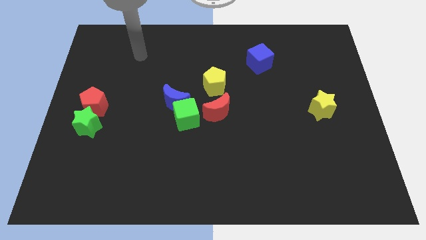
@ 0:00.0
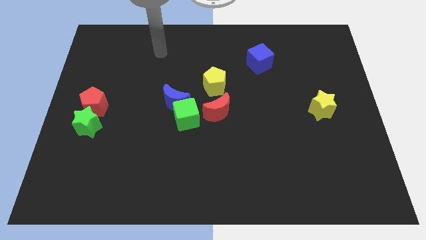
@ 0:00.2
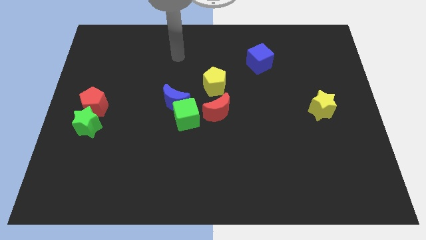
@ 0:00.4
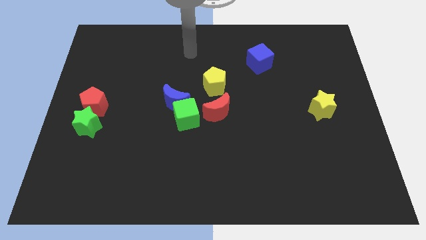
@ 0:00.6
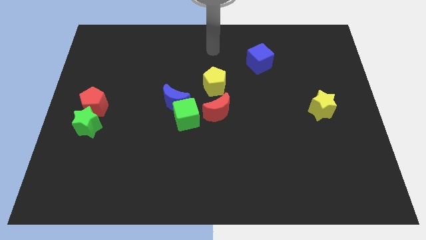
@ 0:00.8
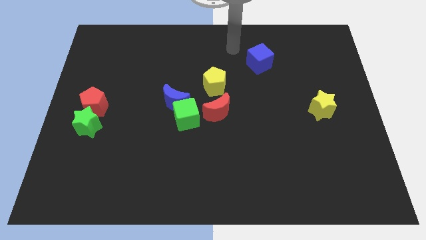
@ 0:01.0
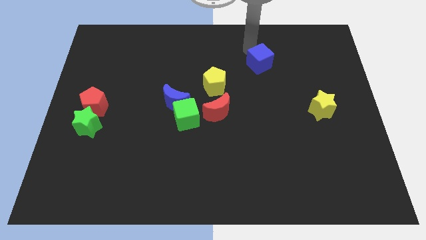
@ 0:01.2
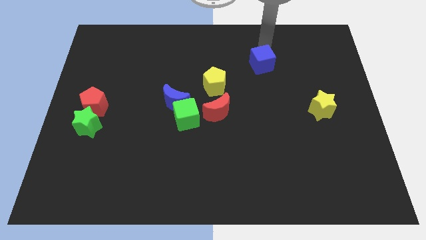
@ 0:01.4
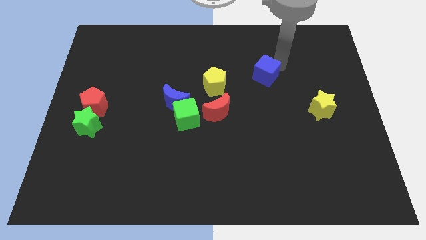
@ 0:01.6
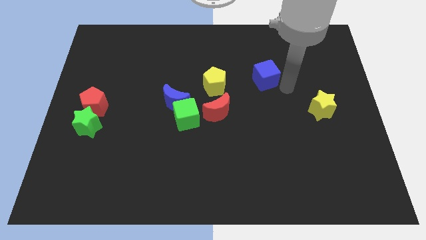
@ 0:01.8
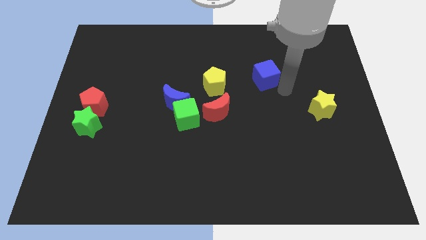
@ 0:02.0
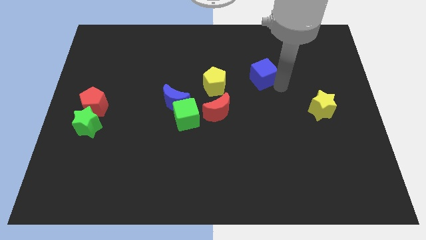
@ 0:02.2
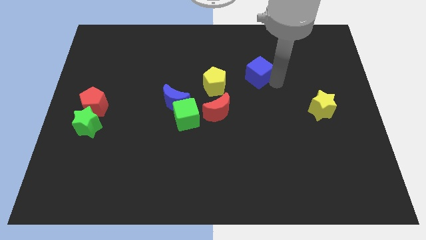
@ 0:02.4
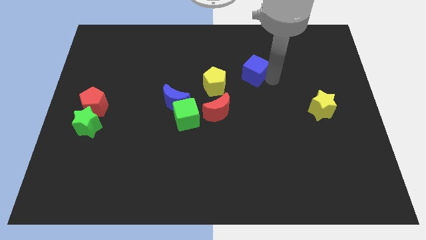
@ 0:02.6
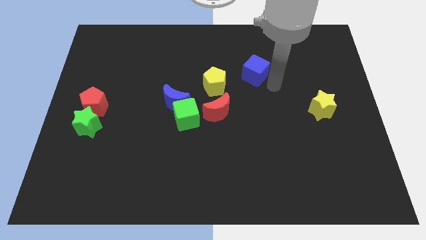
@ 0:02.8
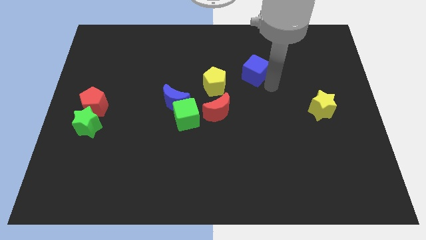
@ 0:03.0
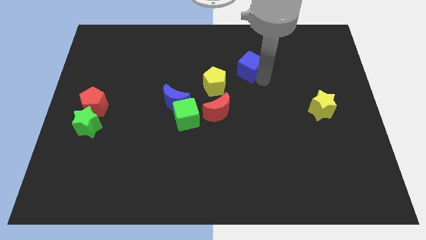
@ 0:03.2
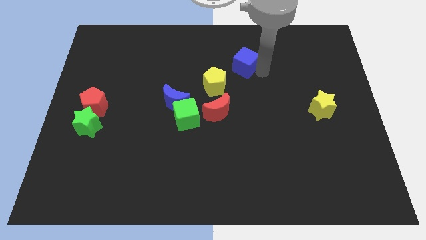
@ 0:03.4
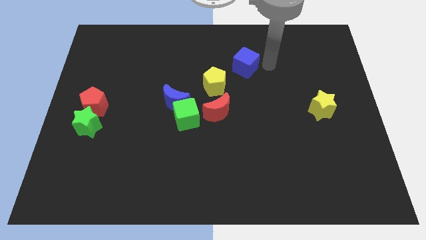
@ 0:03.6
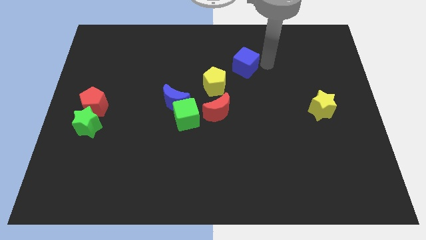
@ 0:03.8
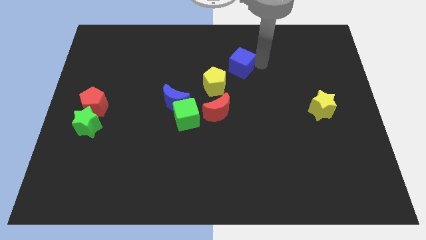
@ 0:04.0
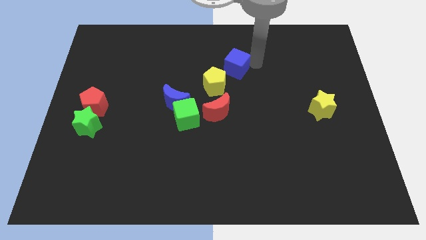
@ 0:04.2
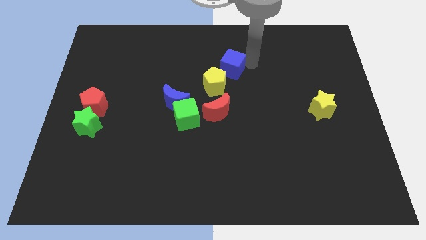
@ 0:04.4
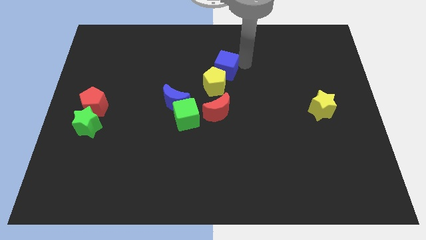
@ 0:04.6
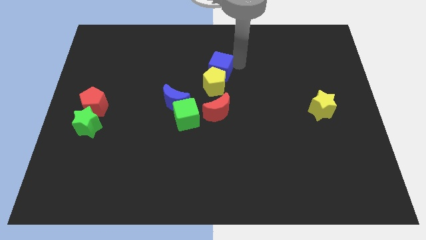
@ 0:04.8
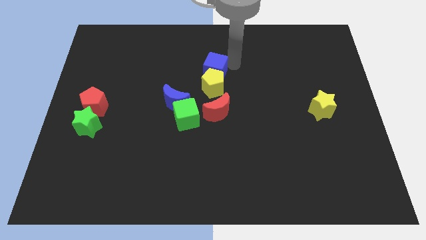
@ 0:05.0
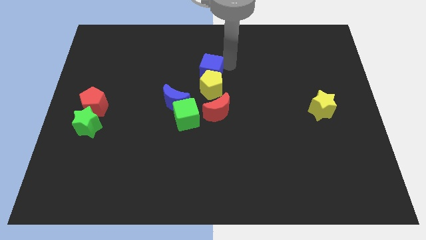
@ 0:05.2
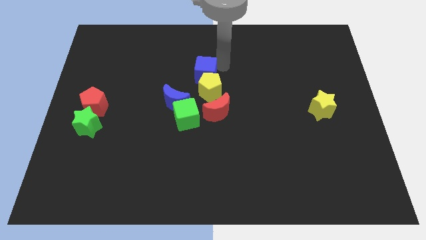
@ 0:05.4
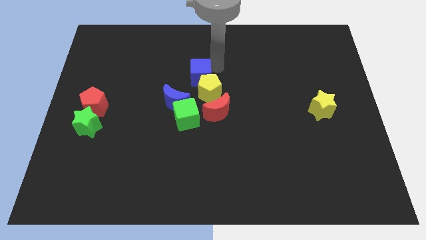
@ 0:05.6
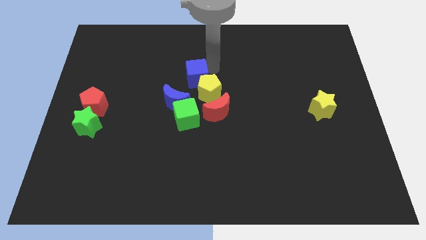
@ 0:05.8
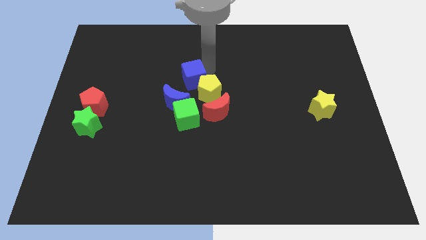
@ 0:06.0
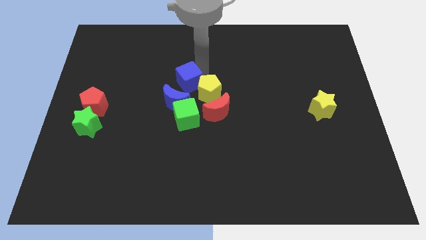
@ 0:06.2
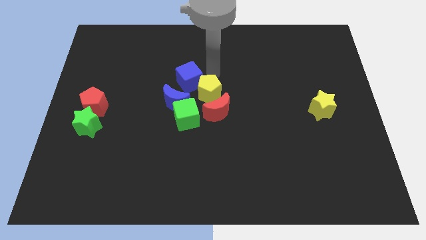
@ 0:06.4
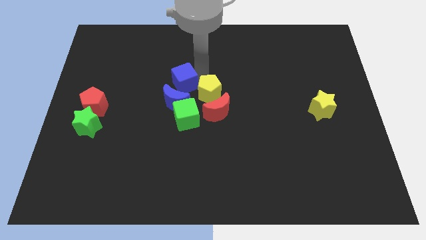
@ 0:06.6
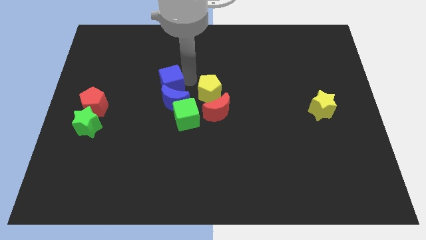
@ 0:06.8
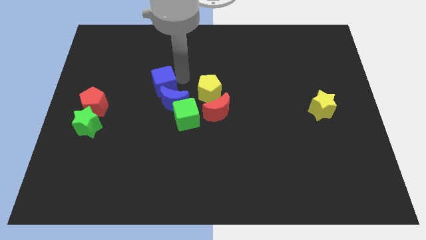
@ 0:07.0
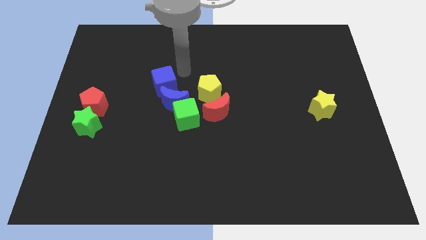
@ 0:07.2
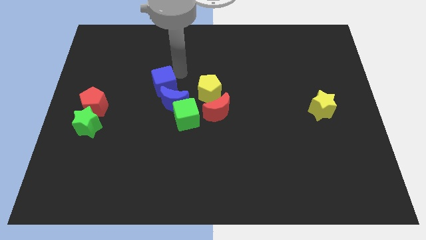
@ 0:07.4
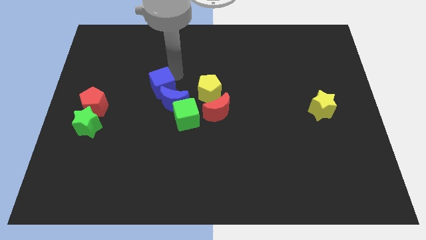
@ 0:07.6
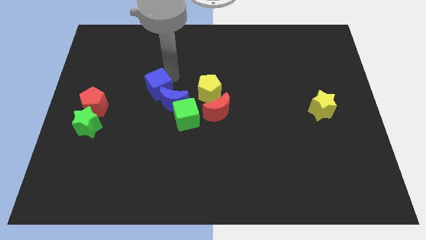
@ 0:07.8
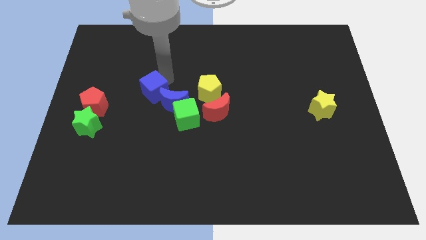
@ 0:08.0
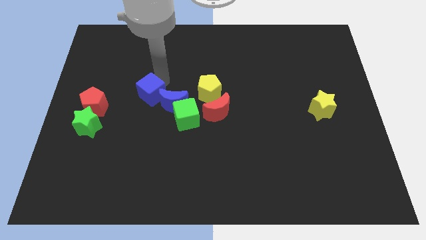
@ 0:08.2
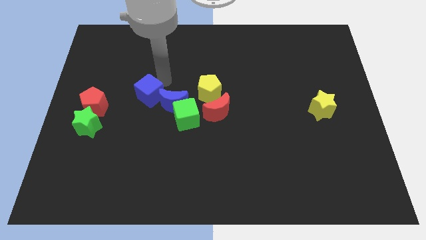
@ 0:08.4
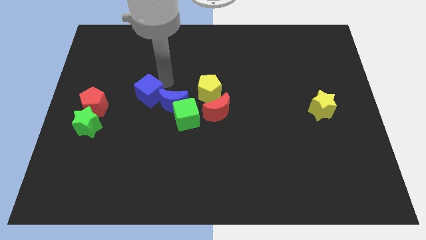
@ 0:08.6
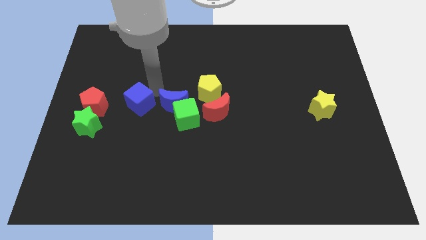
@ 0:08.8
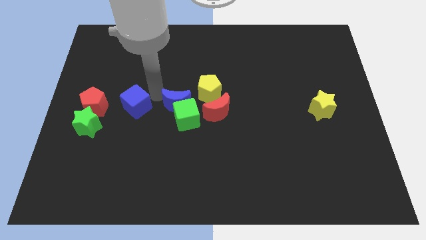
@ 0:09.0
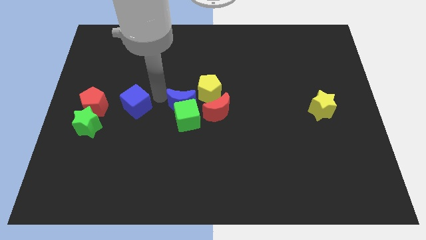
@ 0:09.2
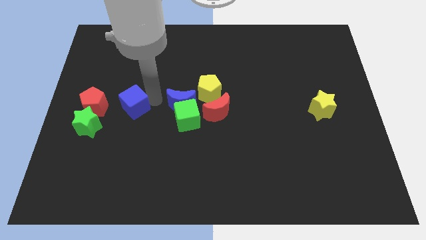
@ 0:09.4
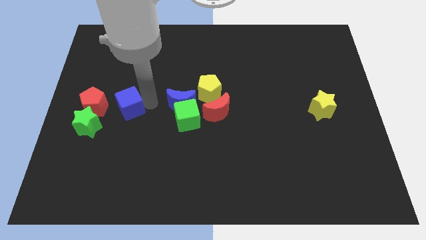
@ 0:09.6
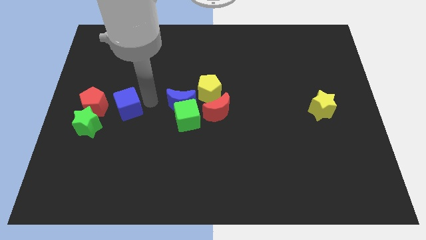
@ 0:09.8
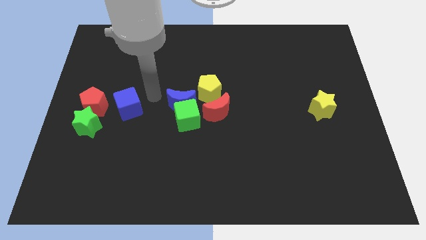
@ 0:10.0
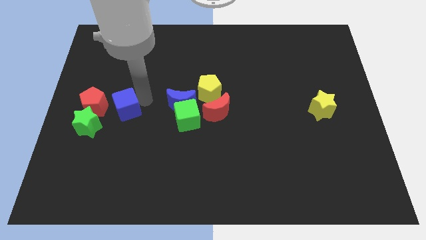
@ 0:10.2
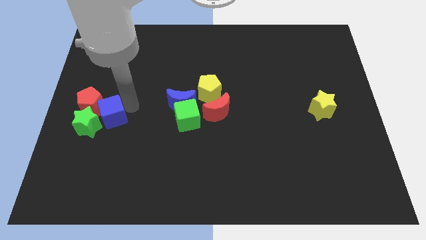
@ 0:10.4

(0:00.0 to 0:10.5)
move the blue cube close to the green star

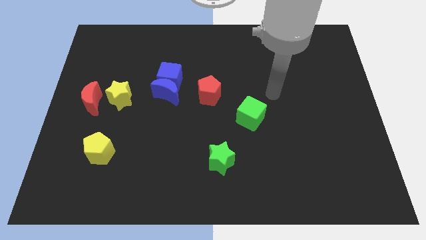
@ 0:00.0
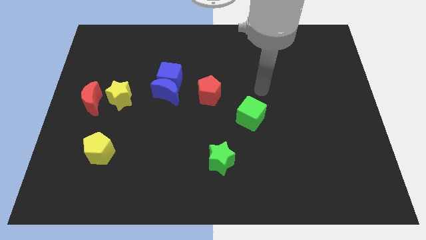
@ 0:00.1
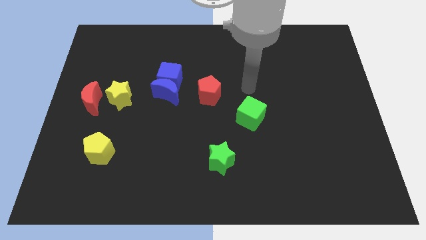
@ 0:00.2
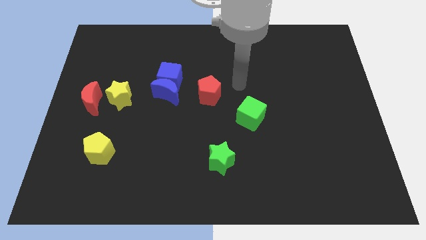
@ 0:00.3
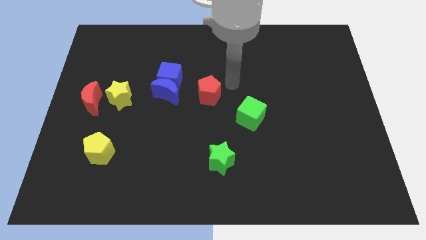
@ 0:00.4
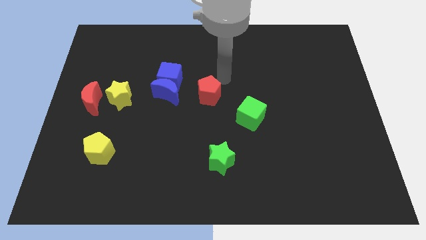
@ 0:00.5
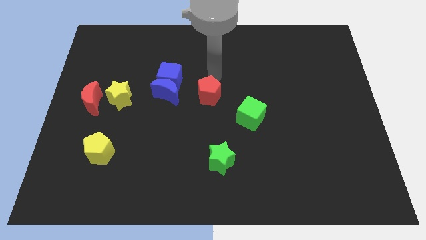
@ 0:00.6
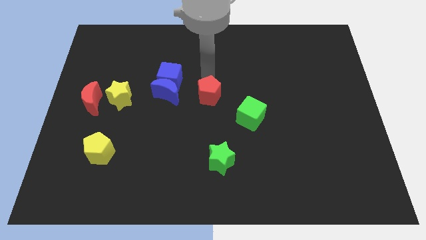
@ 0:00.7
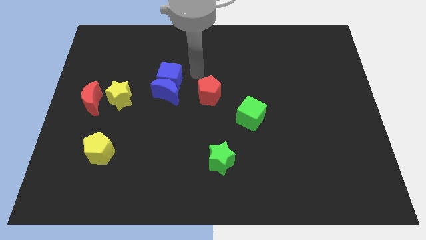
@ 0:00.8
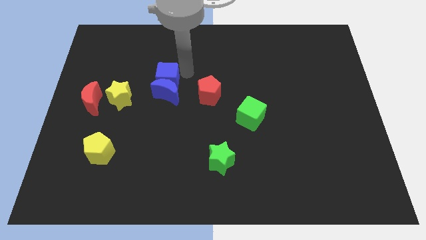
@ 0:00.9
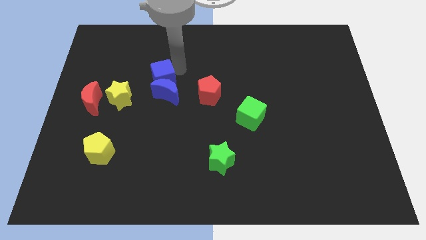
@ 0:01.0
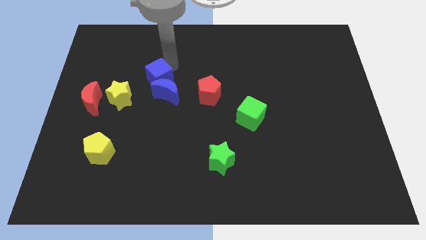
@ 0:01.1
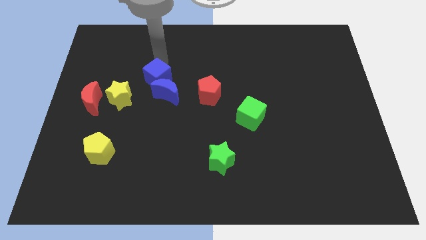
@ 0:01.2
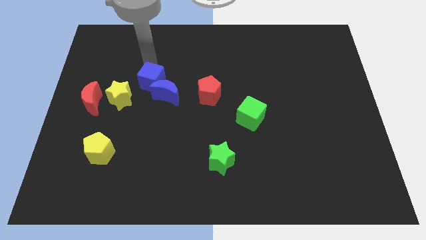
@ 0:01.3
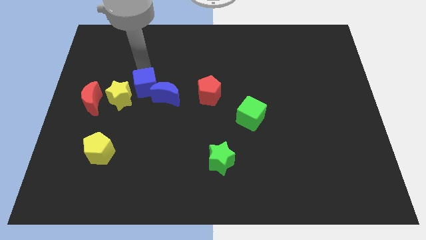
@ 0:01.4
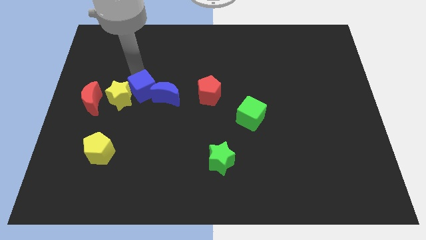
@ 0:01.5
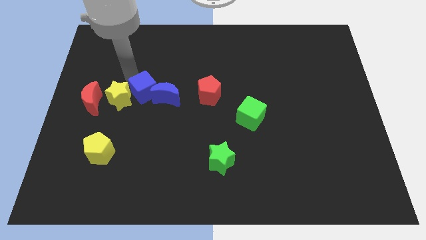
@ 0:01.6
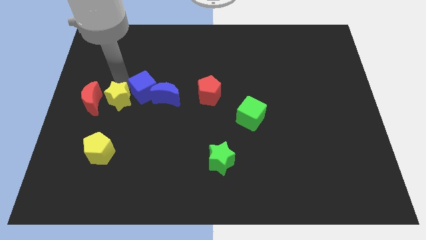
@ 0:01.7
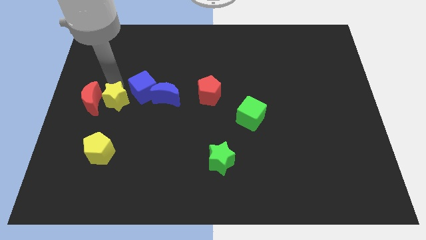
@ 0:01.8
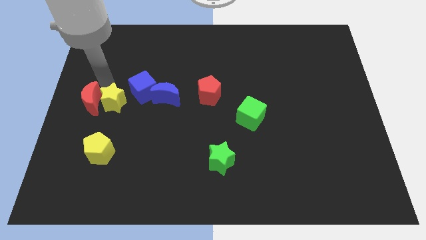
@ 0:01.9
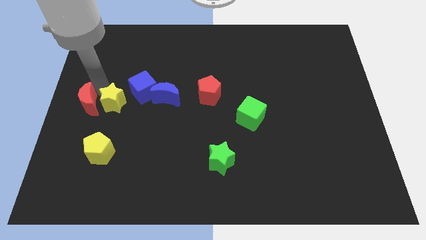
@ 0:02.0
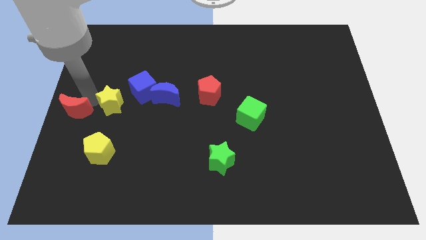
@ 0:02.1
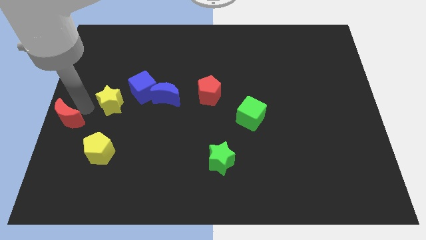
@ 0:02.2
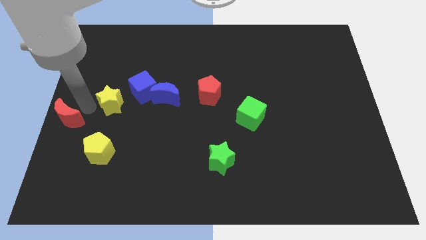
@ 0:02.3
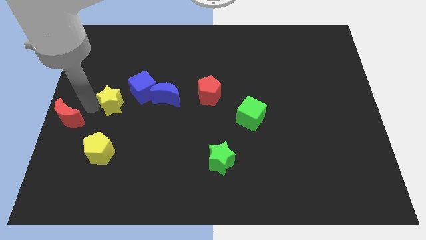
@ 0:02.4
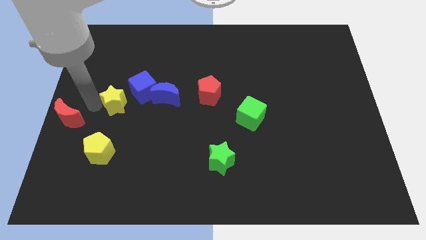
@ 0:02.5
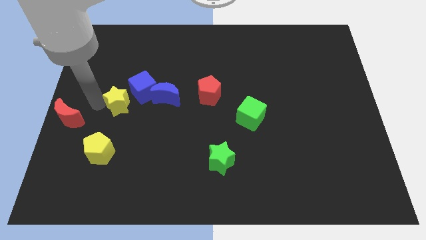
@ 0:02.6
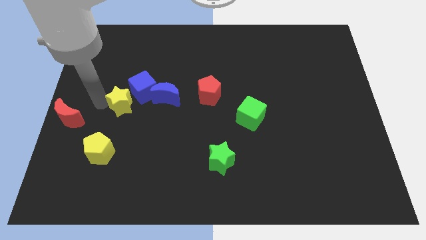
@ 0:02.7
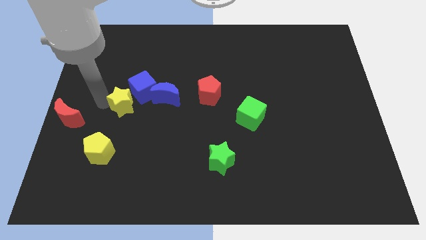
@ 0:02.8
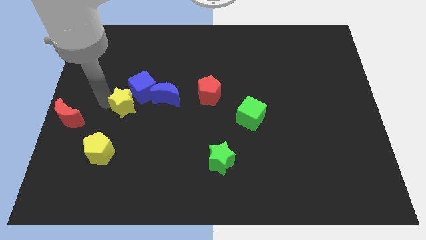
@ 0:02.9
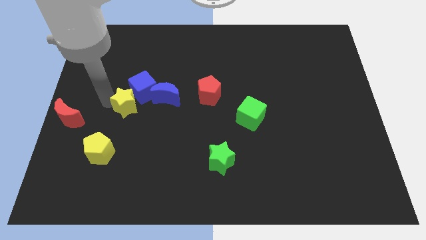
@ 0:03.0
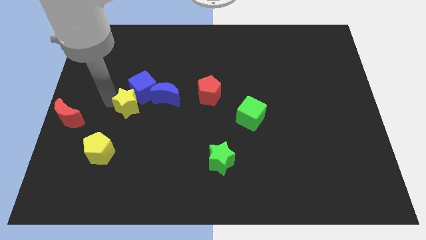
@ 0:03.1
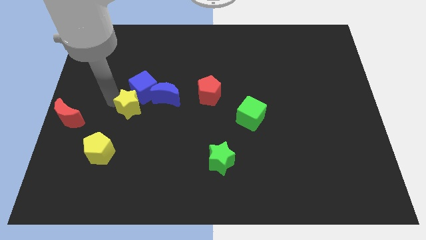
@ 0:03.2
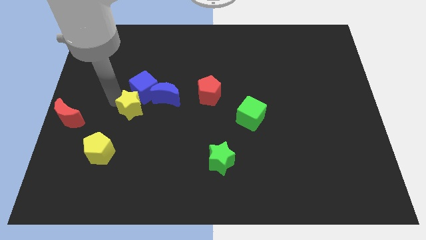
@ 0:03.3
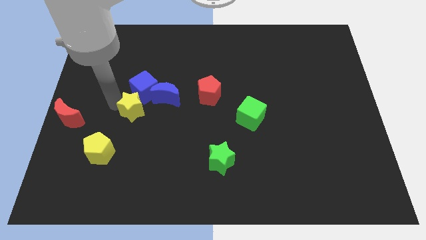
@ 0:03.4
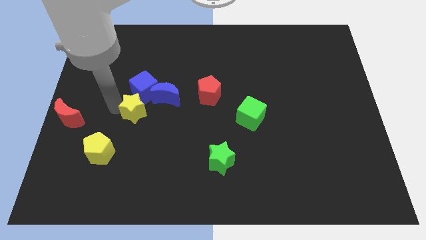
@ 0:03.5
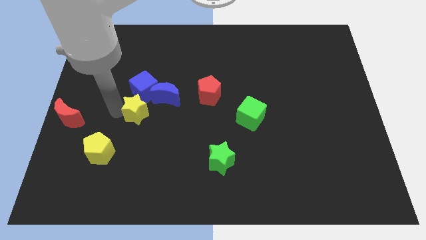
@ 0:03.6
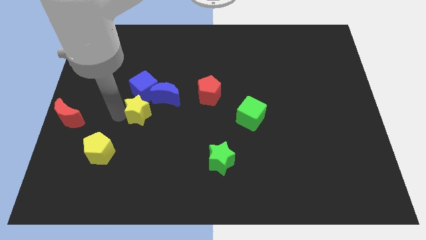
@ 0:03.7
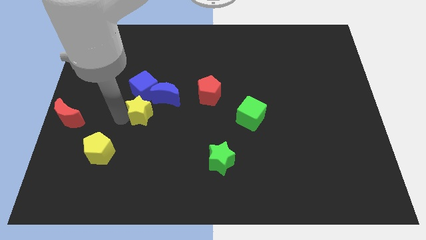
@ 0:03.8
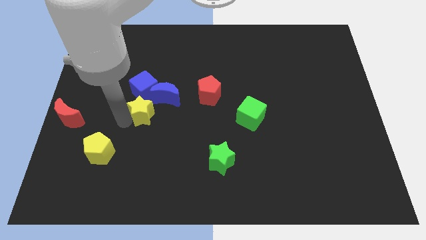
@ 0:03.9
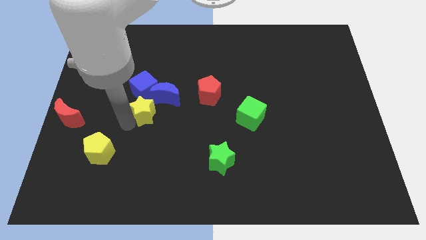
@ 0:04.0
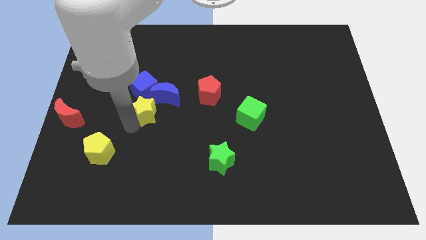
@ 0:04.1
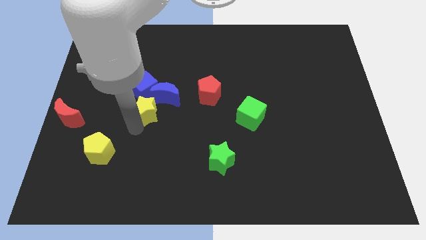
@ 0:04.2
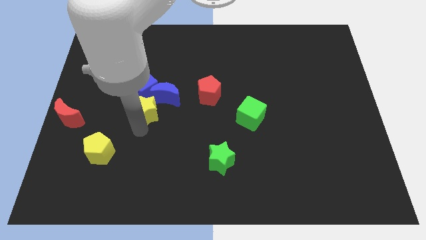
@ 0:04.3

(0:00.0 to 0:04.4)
slide the yellow star to the blue moon
